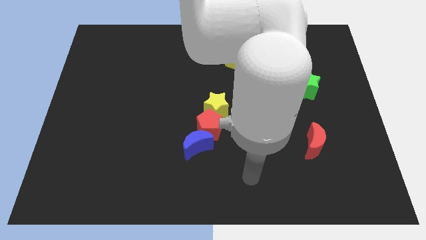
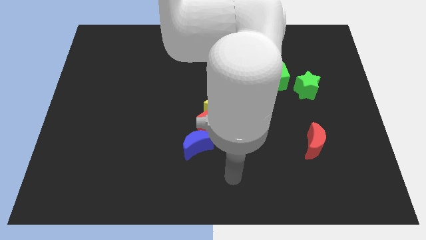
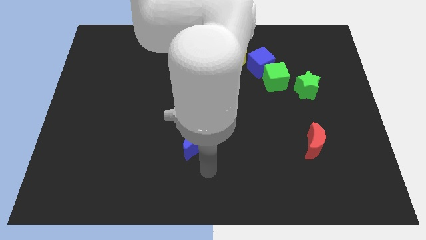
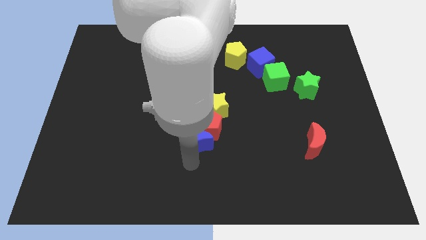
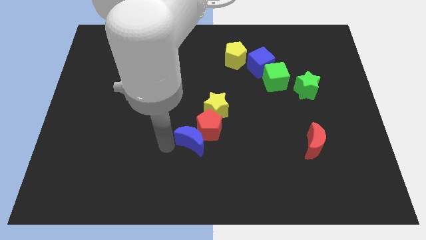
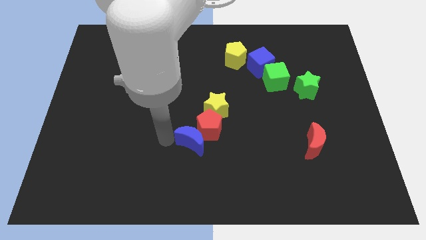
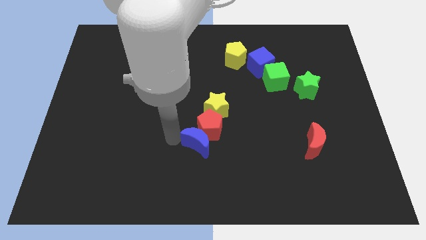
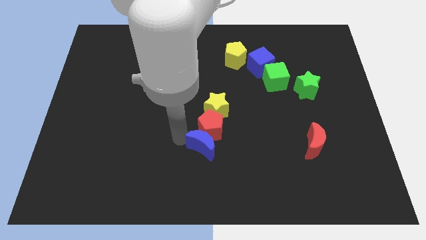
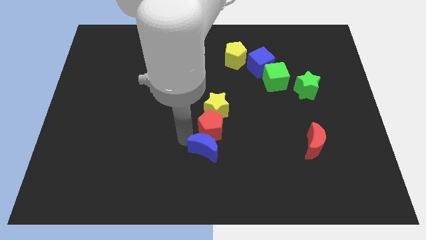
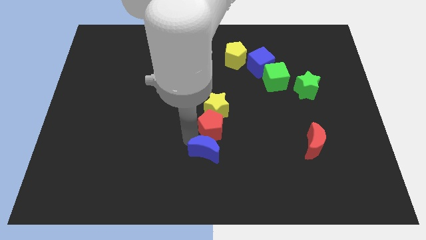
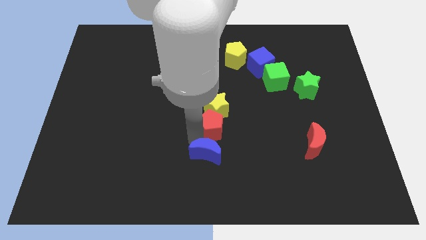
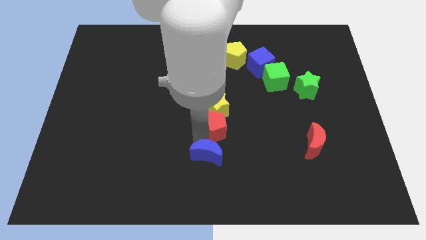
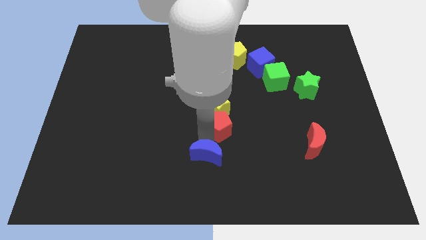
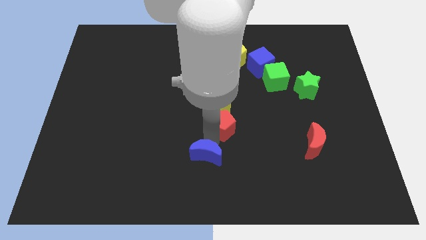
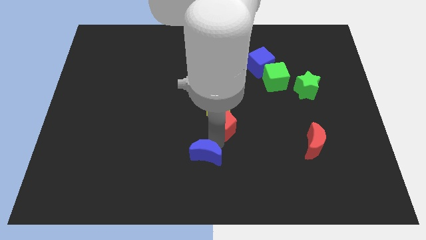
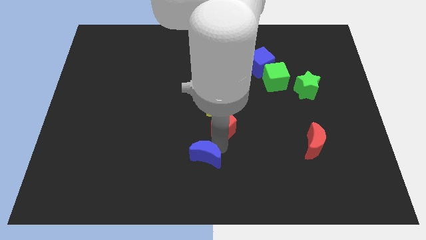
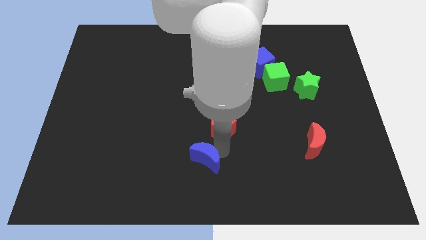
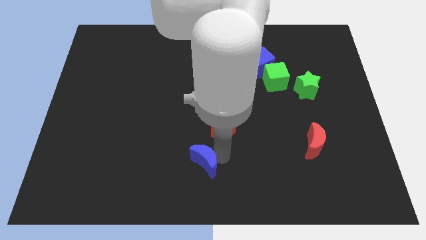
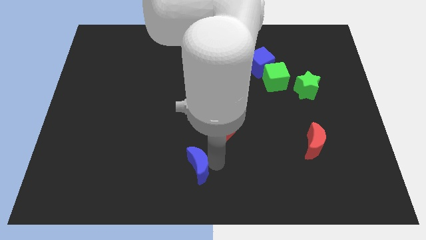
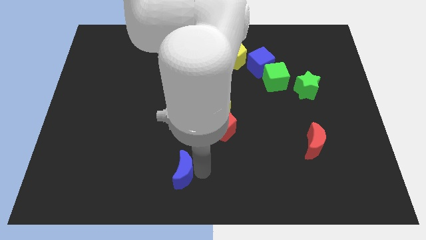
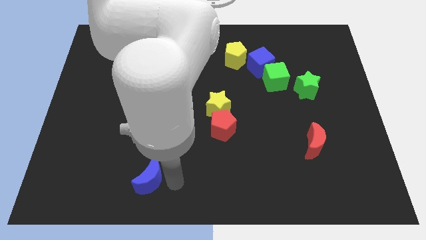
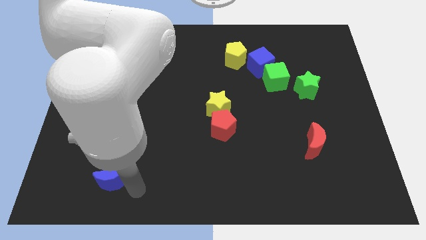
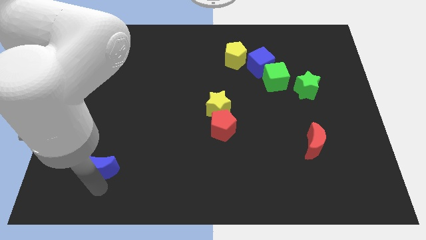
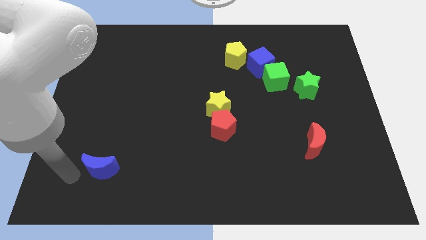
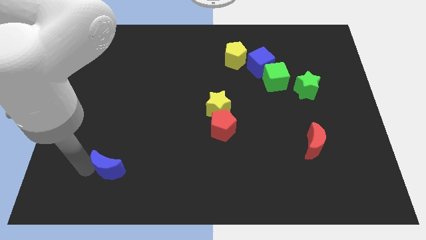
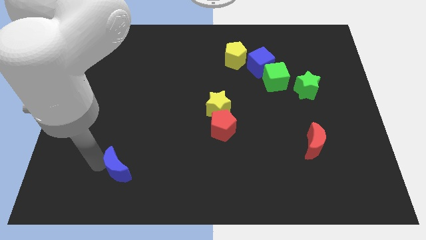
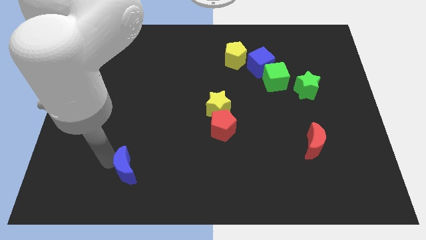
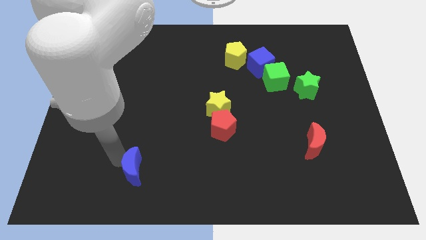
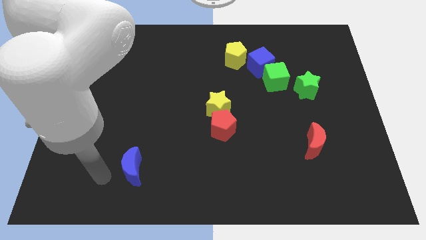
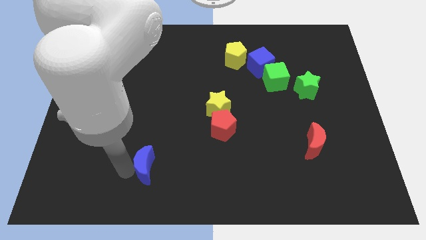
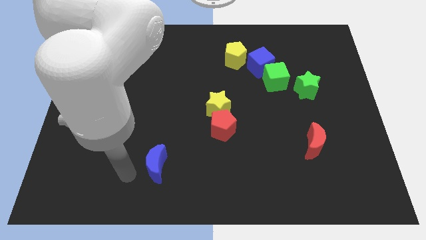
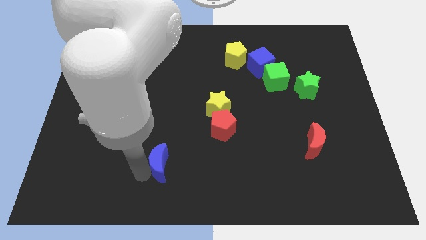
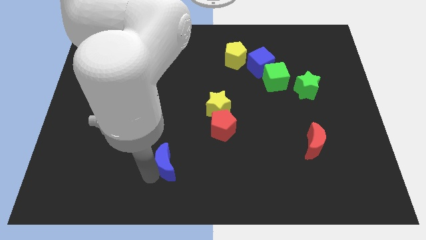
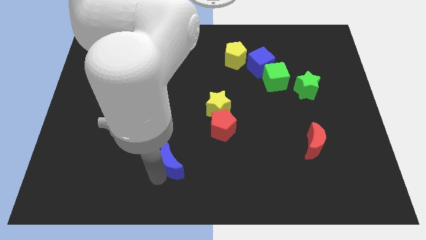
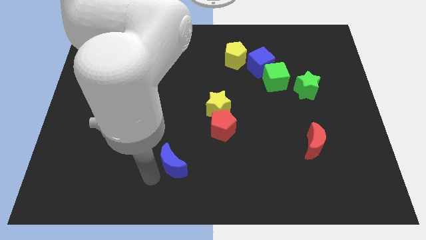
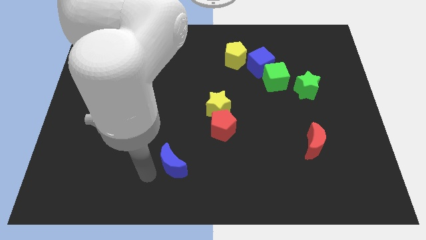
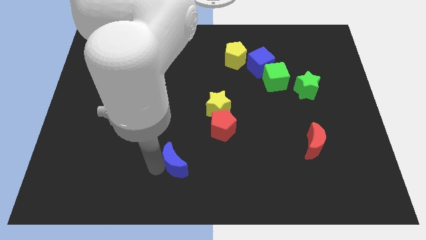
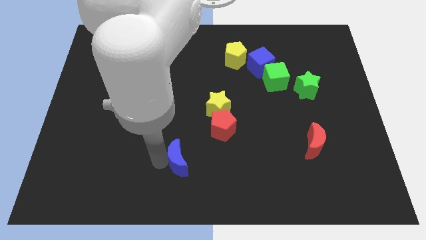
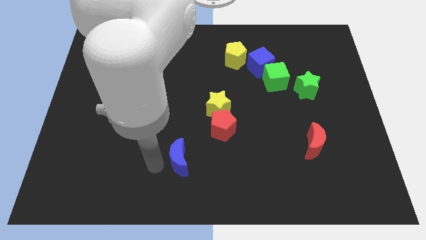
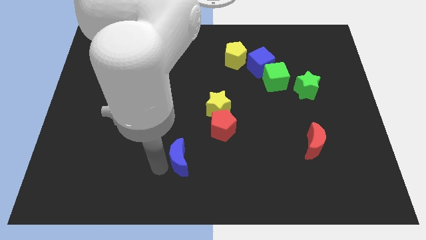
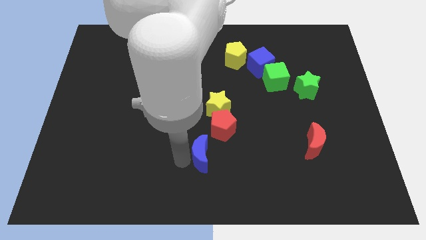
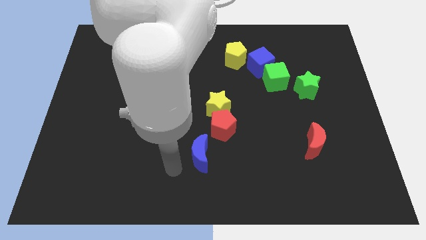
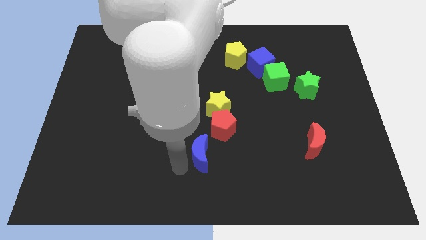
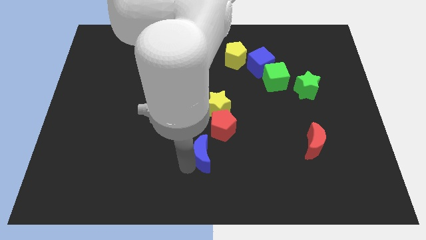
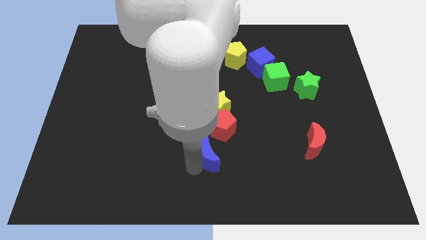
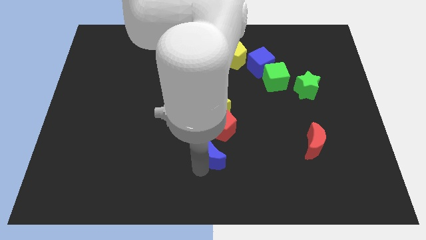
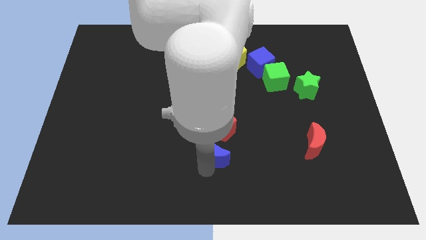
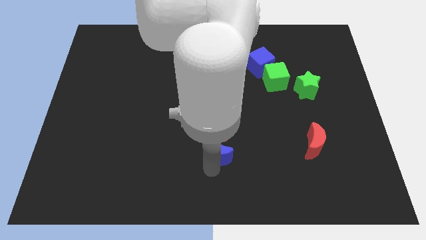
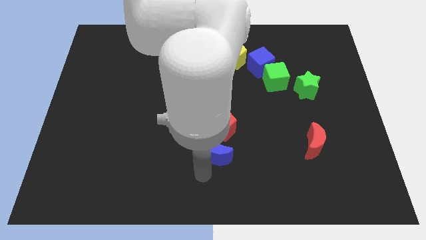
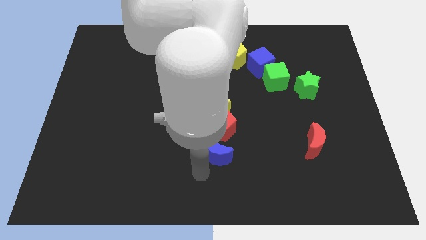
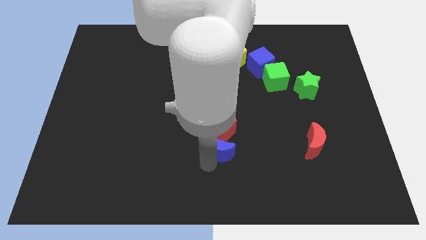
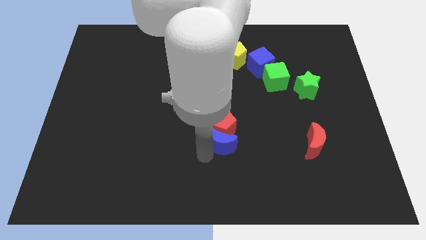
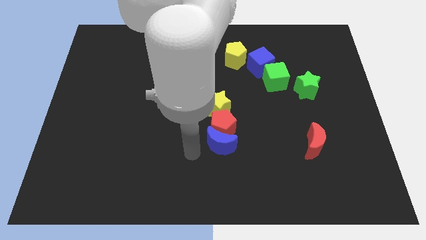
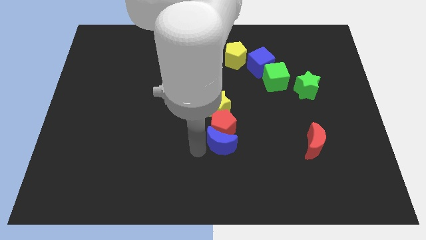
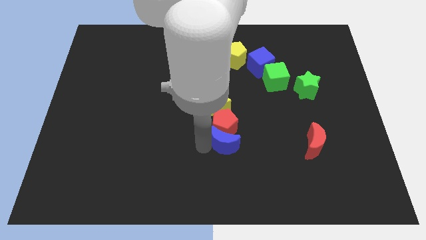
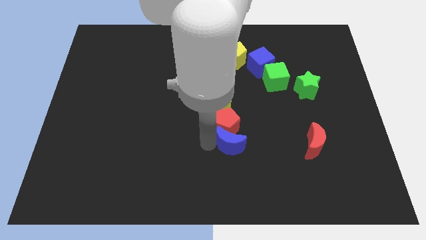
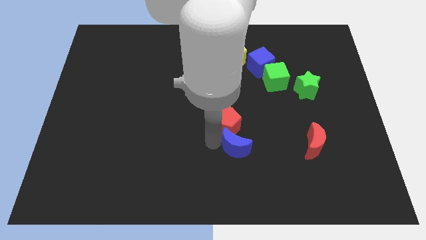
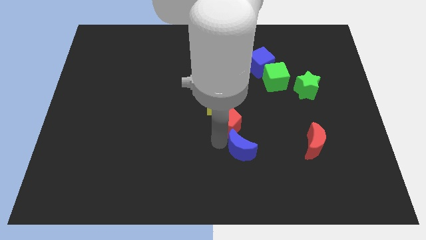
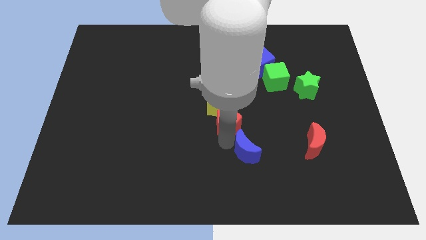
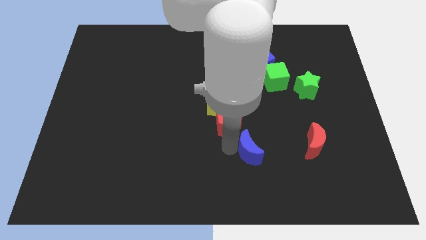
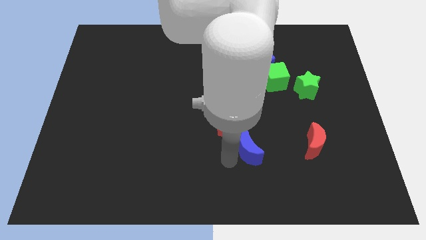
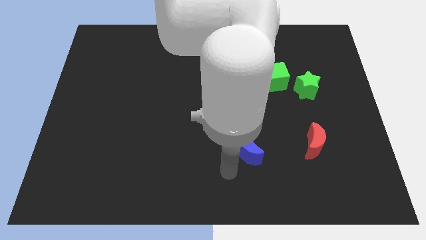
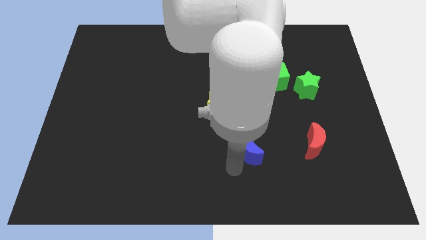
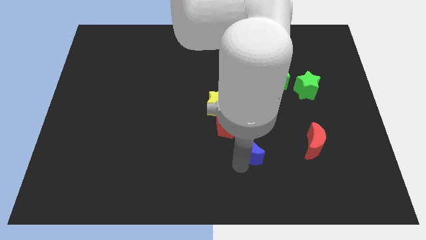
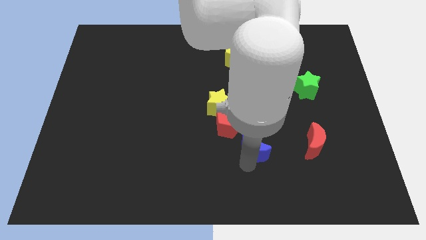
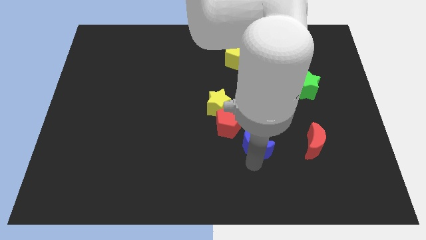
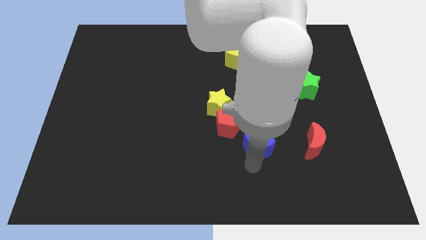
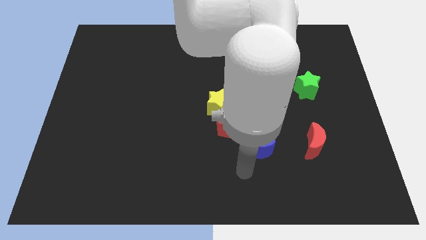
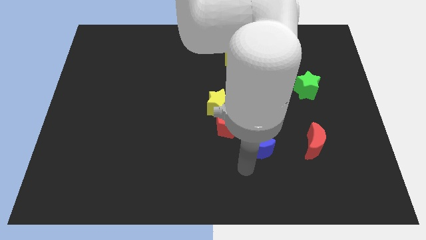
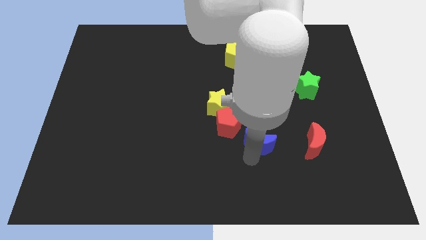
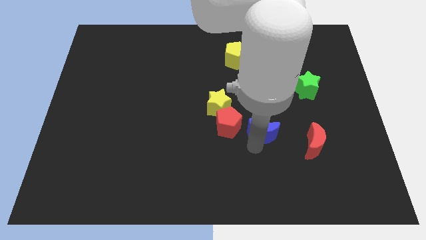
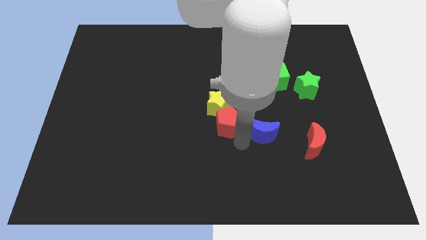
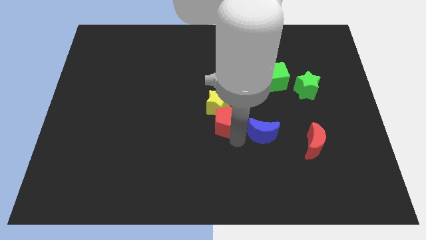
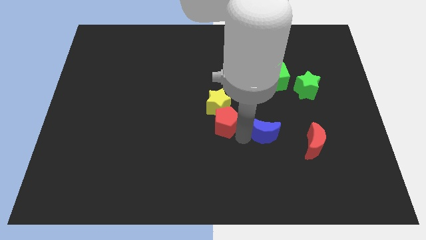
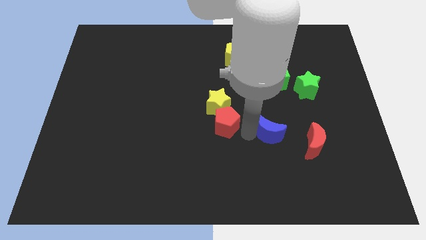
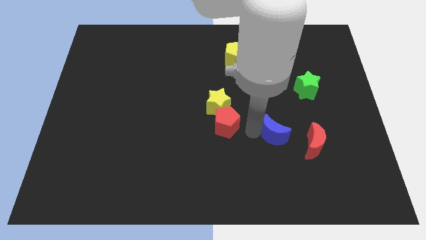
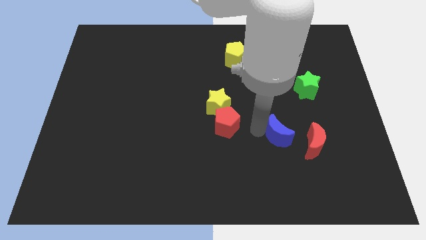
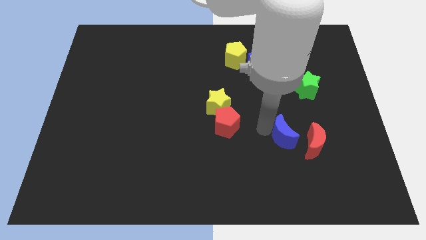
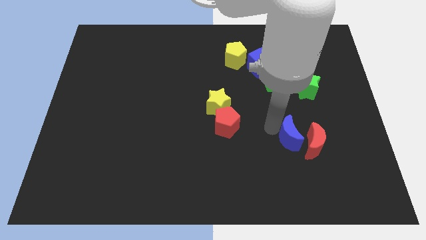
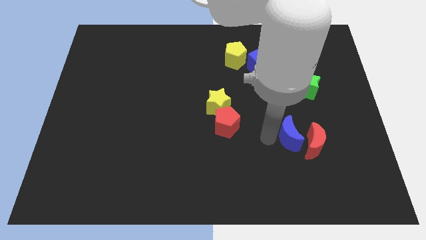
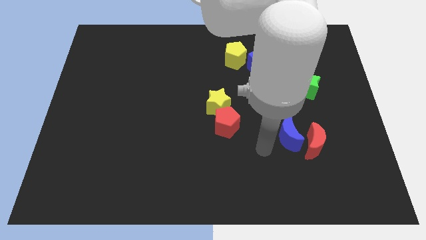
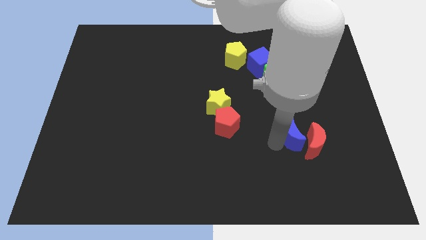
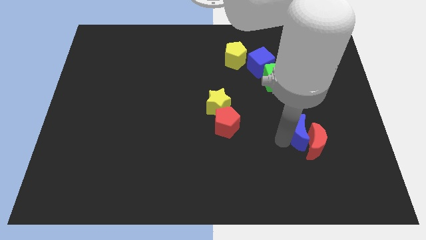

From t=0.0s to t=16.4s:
slide the blue moon to the bottom side of the green star
